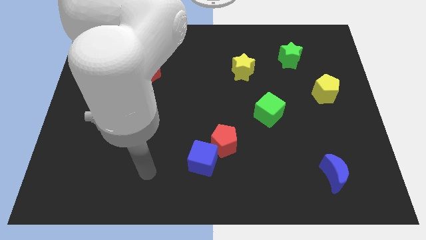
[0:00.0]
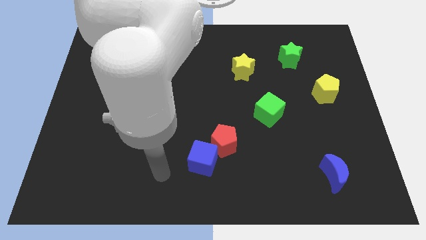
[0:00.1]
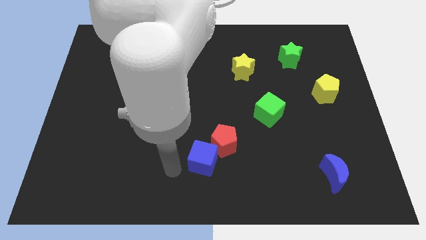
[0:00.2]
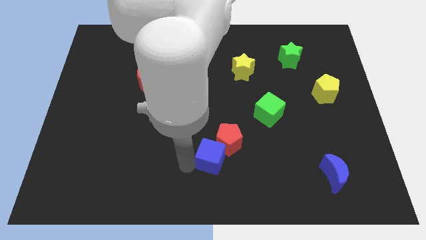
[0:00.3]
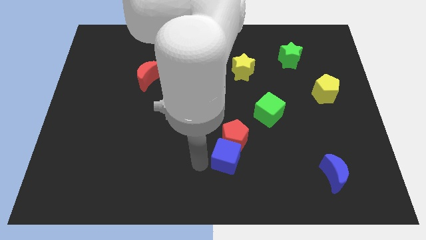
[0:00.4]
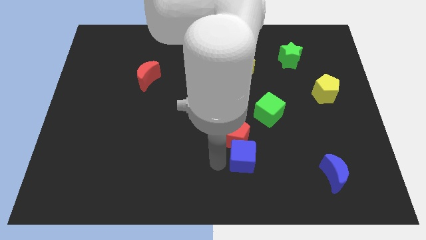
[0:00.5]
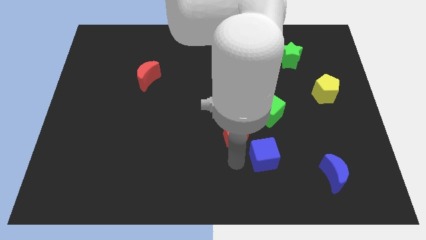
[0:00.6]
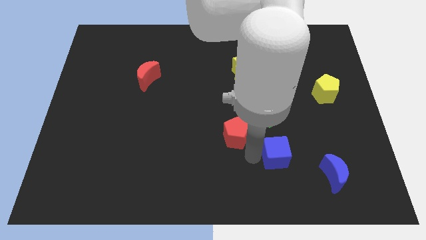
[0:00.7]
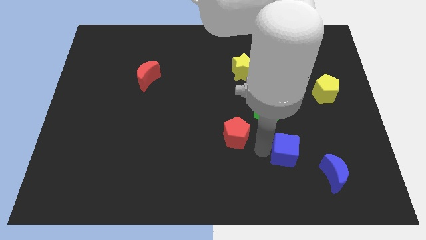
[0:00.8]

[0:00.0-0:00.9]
move the red pentagon away from the blue cube

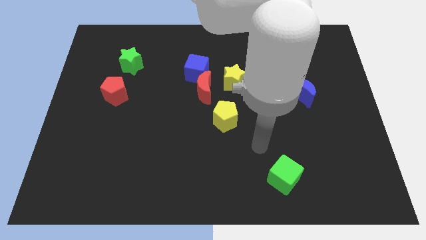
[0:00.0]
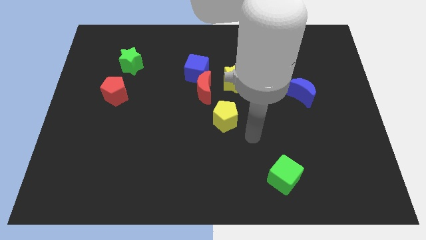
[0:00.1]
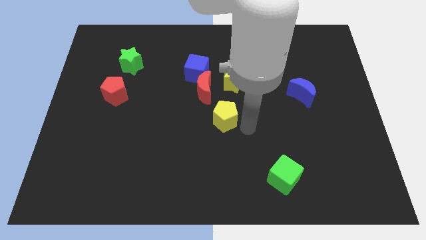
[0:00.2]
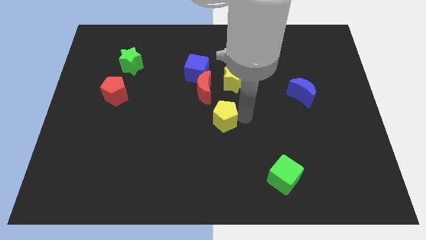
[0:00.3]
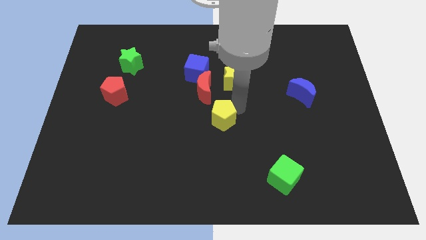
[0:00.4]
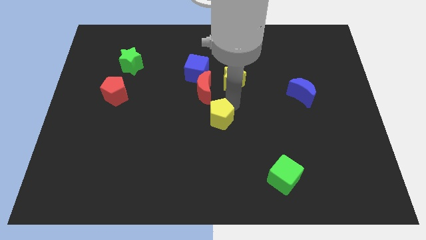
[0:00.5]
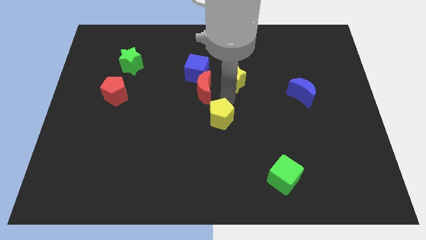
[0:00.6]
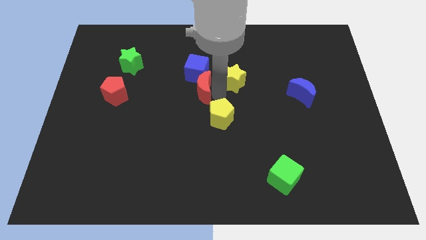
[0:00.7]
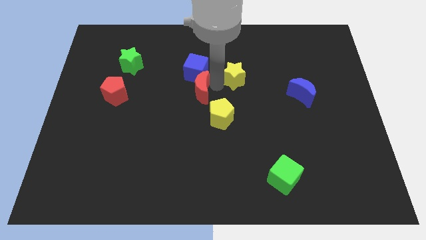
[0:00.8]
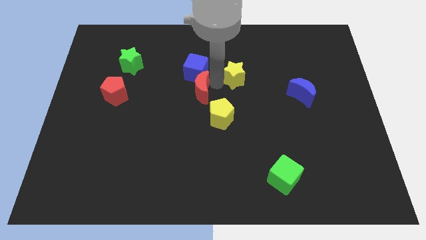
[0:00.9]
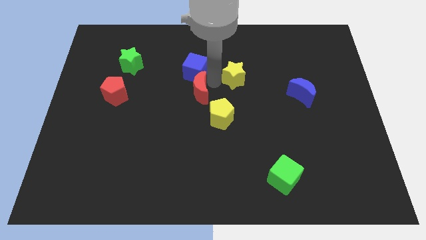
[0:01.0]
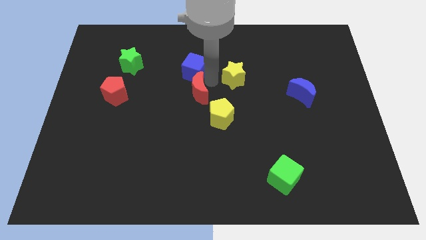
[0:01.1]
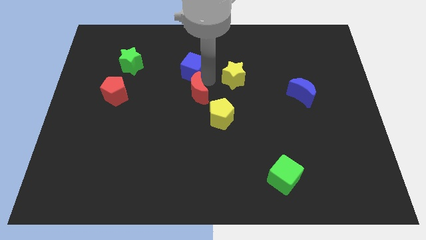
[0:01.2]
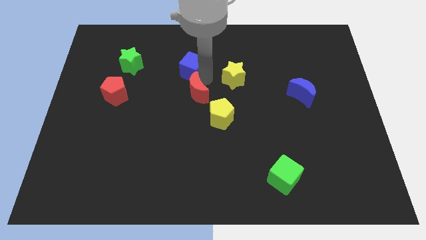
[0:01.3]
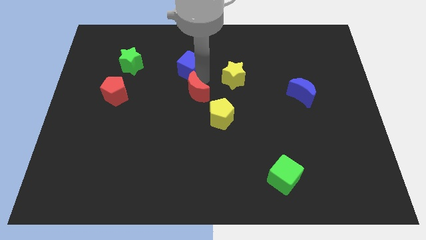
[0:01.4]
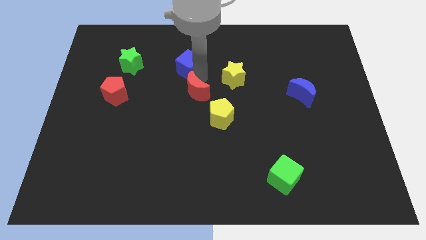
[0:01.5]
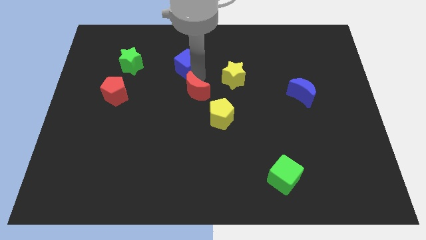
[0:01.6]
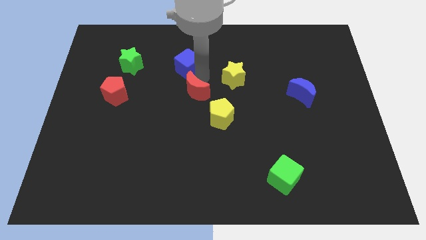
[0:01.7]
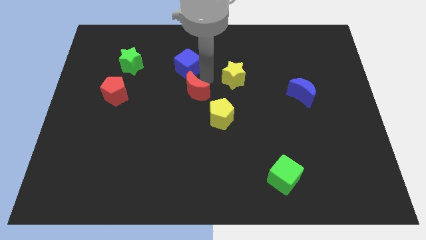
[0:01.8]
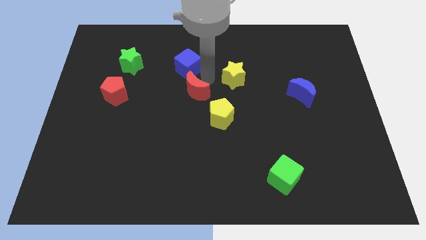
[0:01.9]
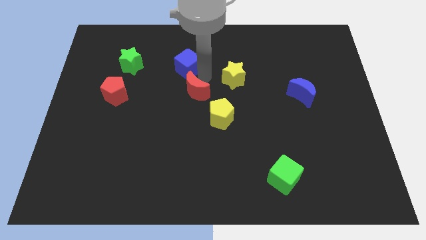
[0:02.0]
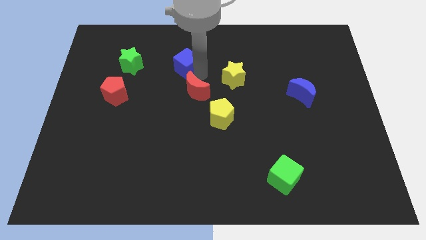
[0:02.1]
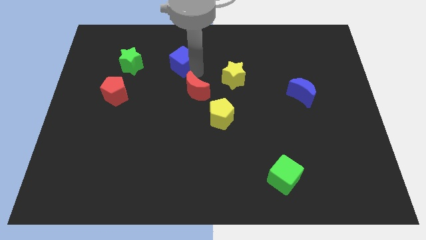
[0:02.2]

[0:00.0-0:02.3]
separate the blue cube from the red moon and yellow star

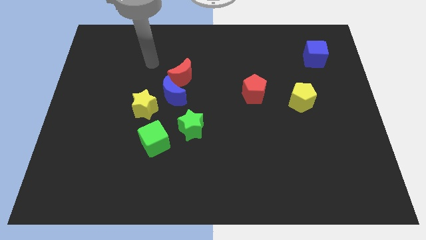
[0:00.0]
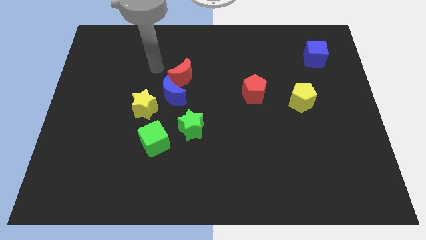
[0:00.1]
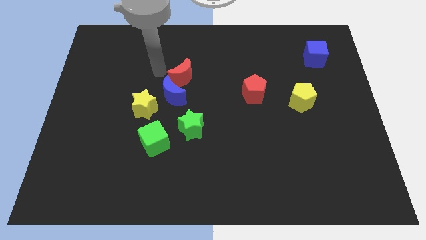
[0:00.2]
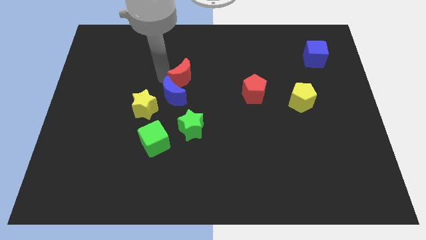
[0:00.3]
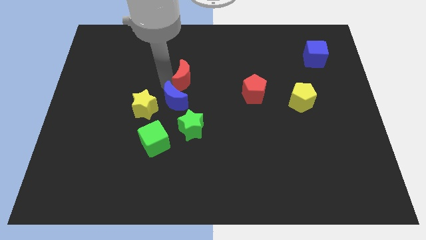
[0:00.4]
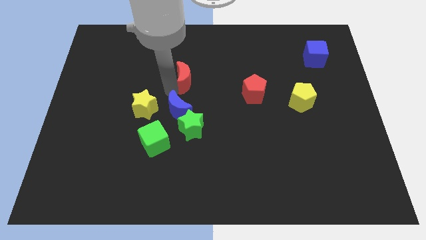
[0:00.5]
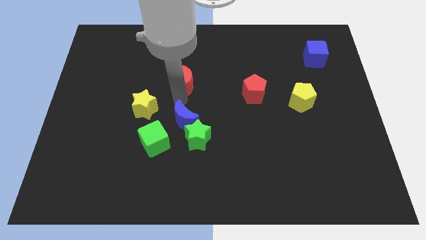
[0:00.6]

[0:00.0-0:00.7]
separate the red moon from the blue moon

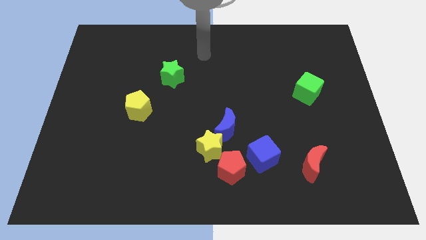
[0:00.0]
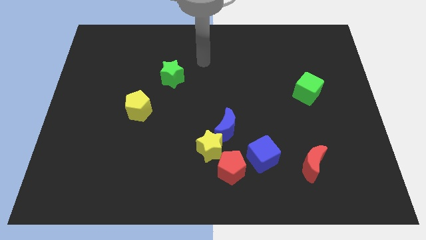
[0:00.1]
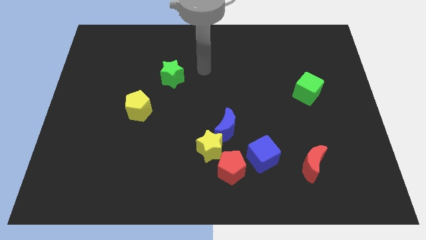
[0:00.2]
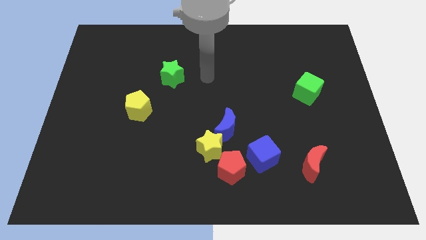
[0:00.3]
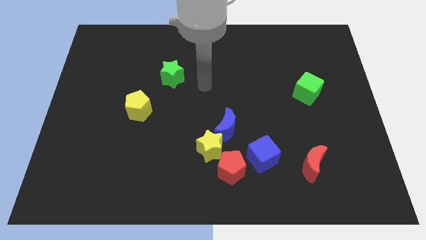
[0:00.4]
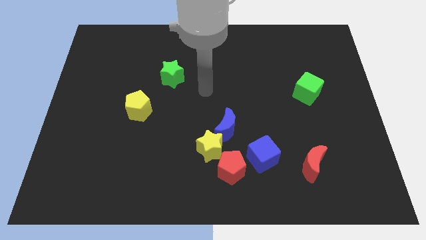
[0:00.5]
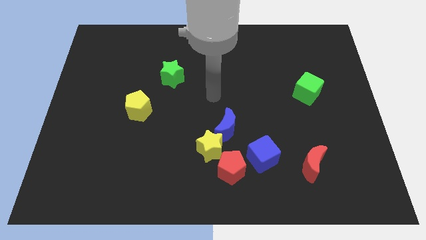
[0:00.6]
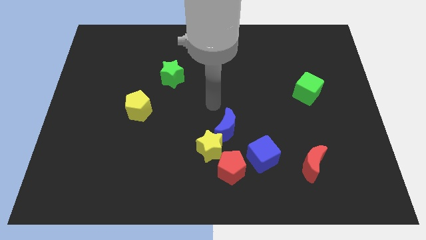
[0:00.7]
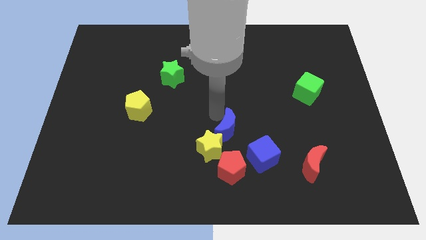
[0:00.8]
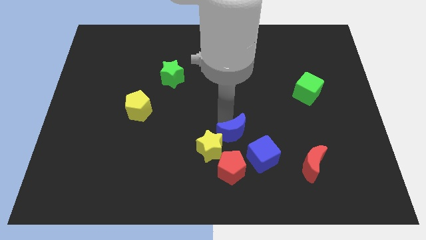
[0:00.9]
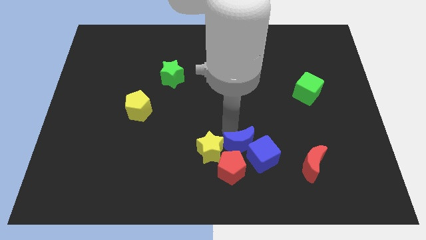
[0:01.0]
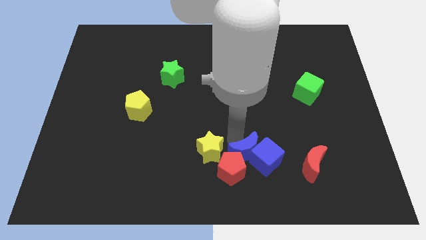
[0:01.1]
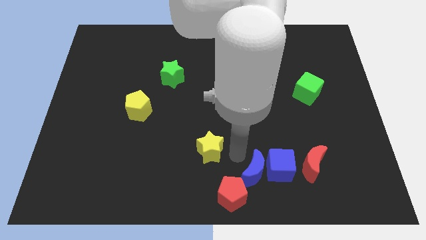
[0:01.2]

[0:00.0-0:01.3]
move the yellow star away from the blue moon and red pentagon

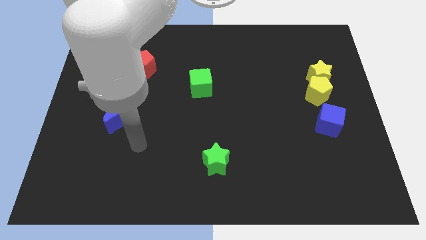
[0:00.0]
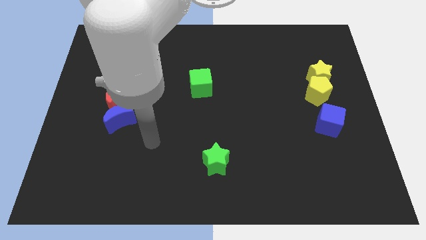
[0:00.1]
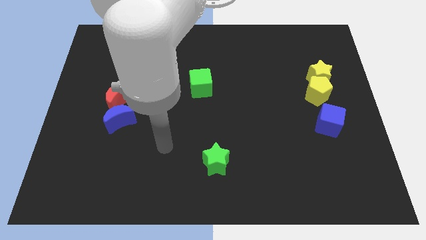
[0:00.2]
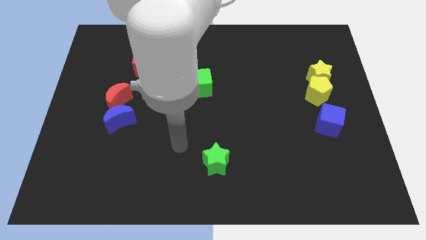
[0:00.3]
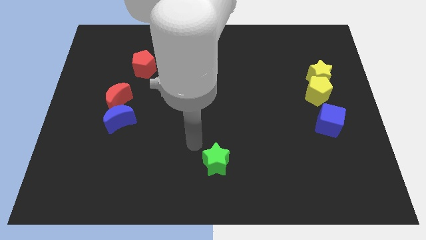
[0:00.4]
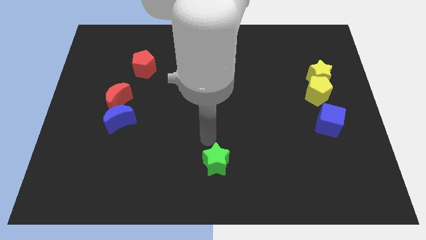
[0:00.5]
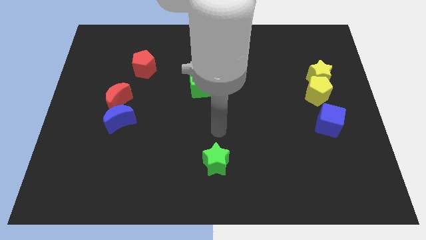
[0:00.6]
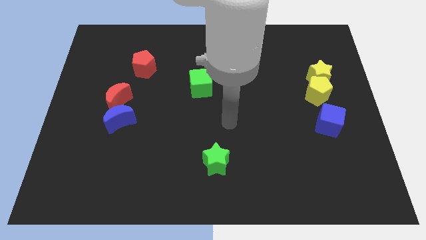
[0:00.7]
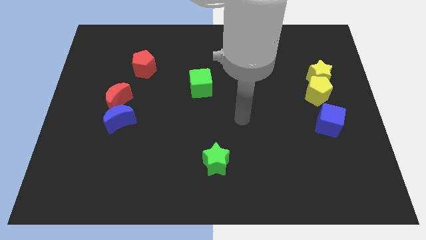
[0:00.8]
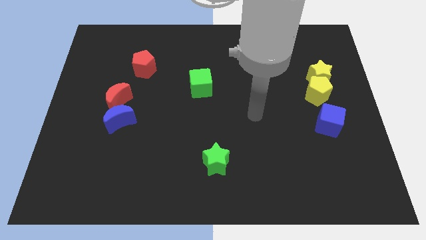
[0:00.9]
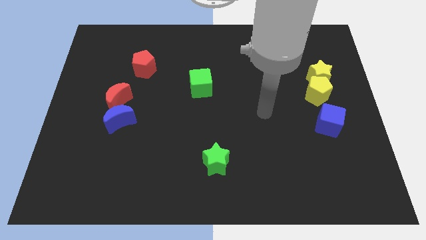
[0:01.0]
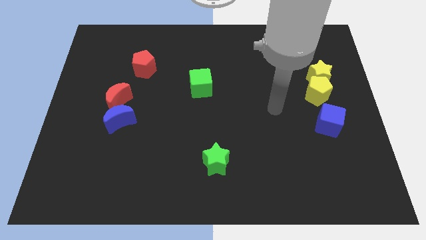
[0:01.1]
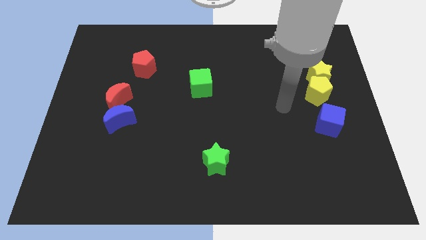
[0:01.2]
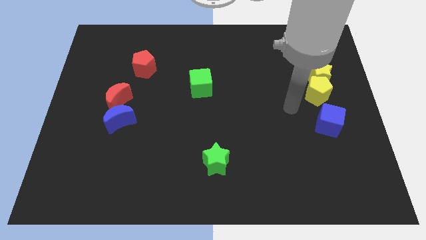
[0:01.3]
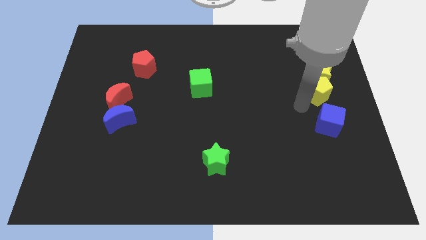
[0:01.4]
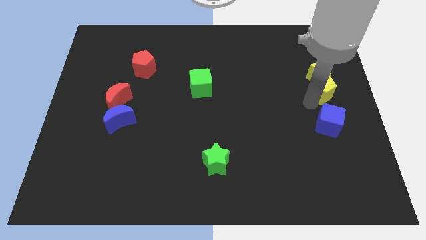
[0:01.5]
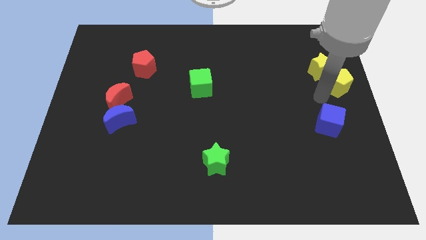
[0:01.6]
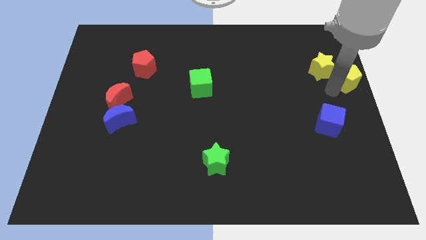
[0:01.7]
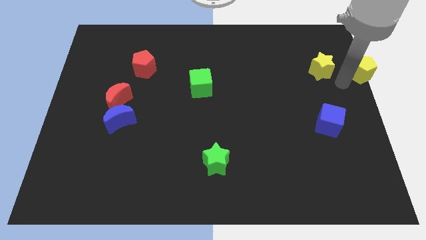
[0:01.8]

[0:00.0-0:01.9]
separate the yellow star from the yellow pentagon

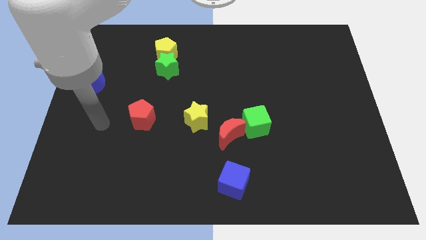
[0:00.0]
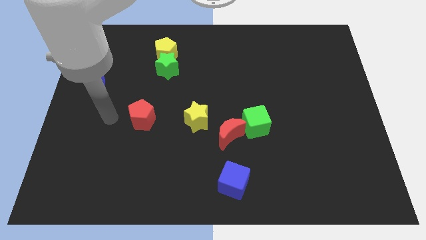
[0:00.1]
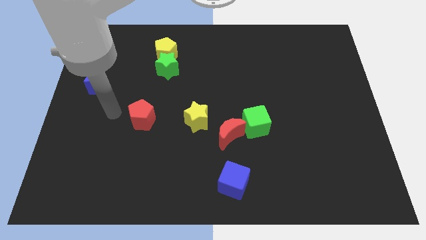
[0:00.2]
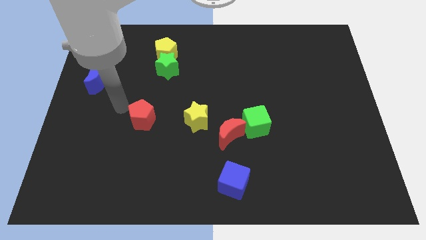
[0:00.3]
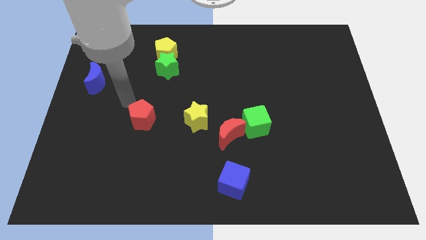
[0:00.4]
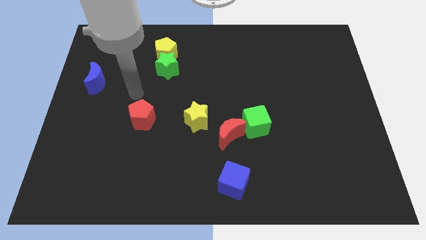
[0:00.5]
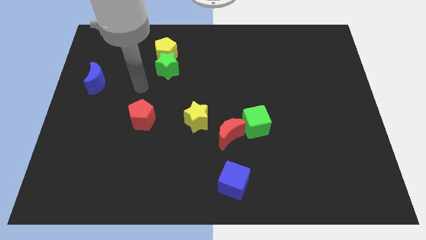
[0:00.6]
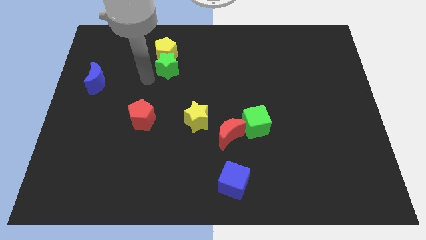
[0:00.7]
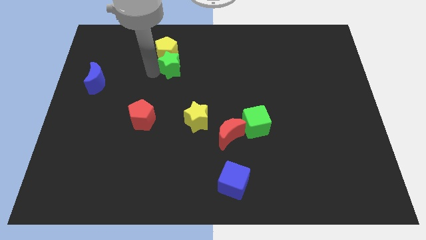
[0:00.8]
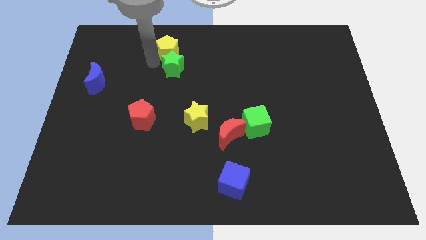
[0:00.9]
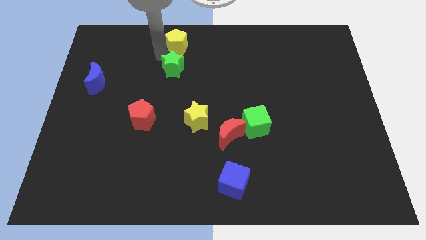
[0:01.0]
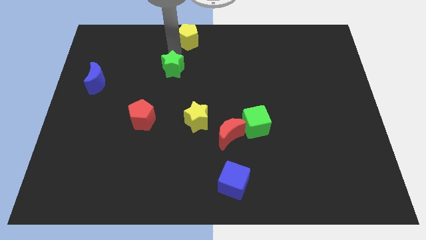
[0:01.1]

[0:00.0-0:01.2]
move the green star away from the yellow pentagon

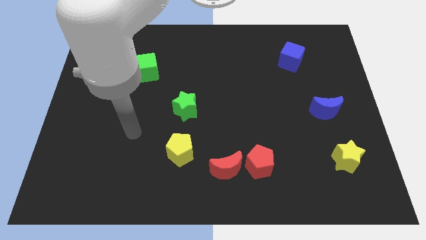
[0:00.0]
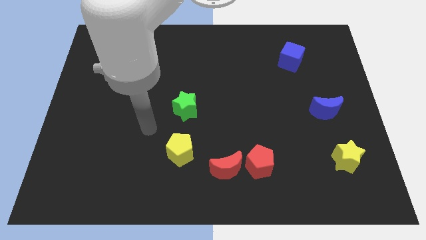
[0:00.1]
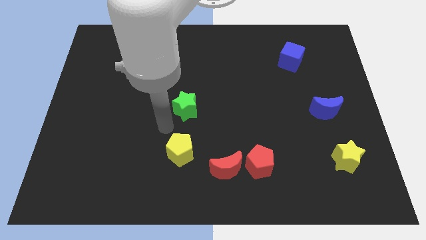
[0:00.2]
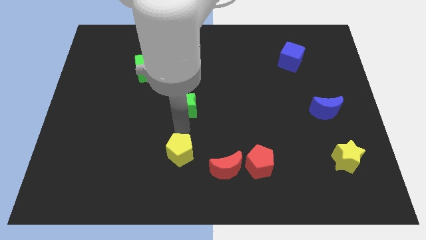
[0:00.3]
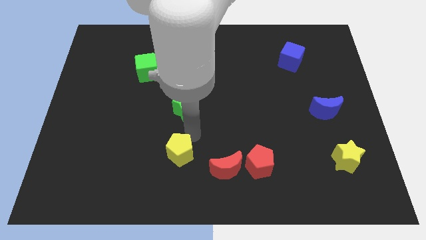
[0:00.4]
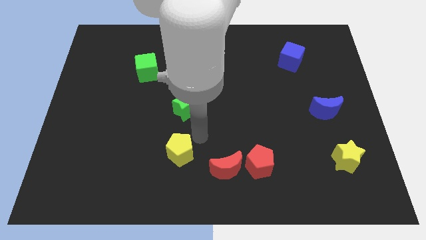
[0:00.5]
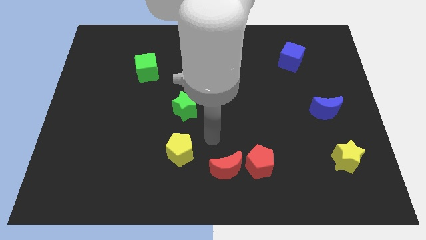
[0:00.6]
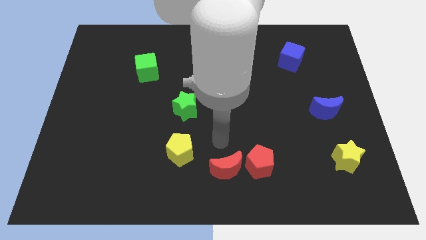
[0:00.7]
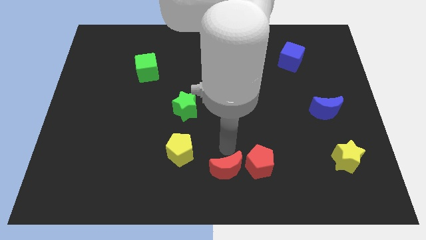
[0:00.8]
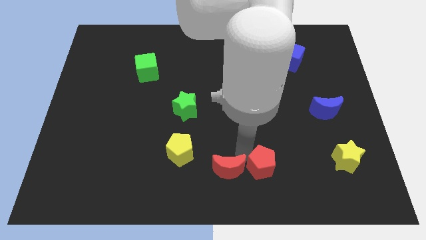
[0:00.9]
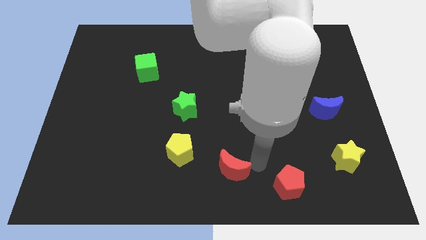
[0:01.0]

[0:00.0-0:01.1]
separate the red moon from the red pentagon
